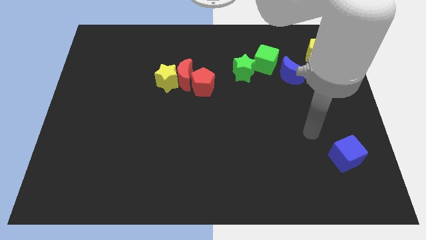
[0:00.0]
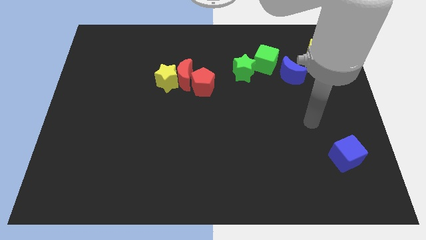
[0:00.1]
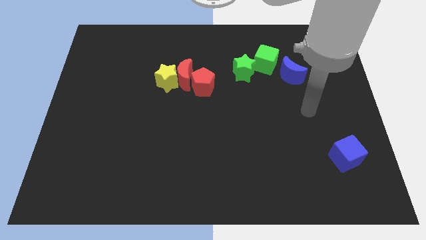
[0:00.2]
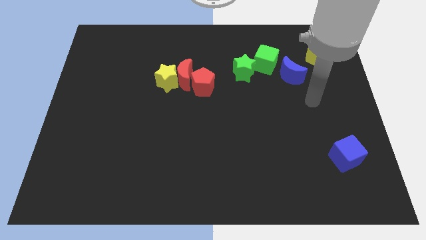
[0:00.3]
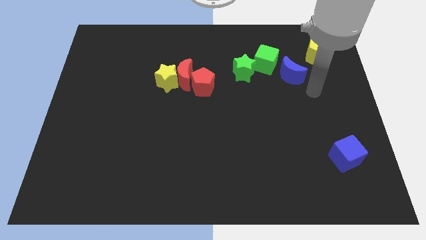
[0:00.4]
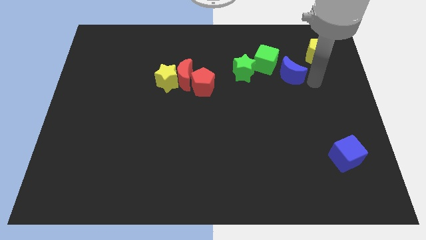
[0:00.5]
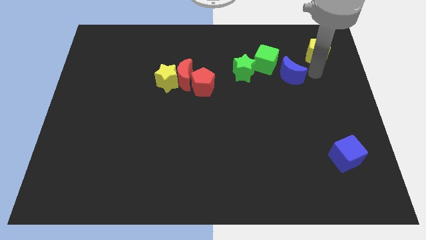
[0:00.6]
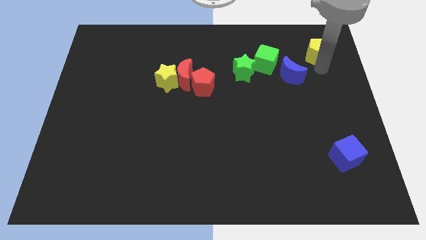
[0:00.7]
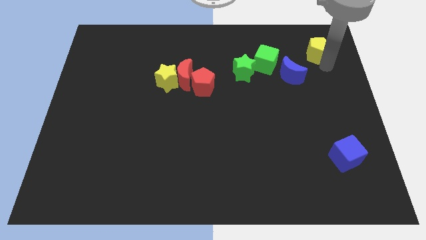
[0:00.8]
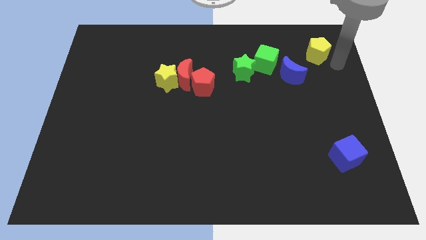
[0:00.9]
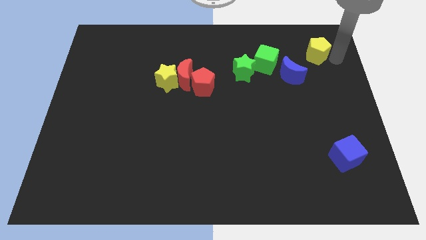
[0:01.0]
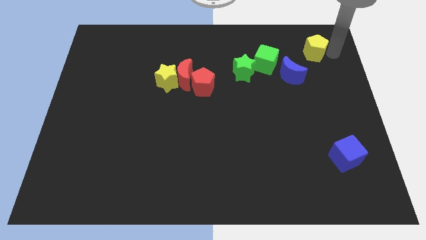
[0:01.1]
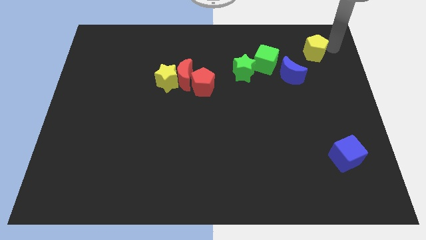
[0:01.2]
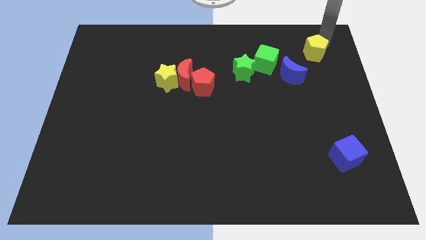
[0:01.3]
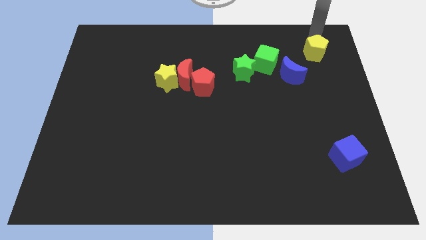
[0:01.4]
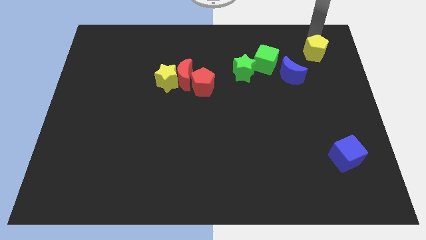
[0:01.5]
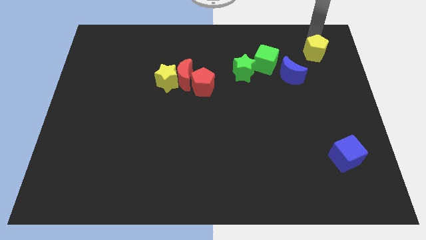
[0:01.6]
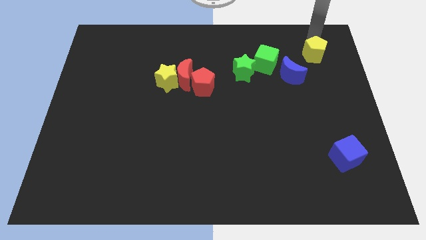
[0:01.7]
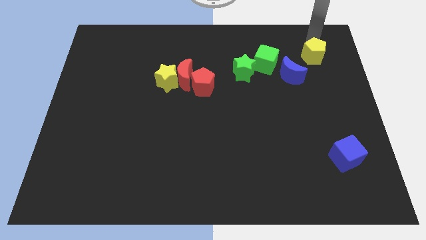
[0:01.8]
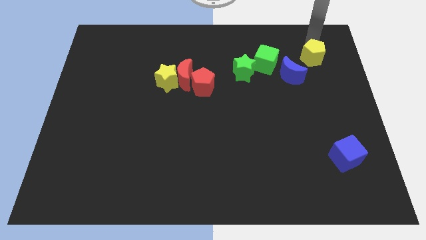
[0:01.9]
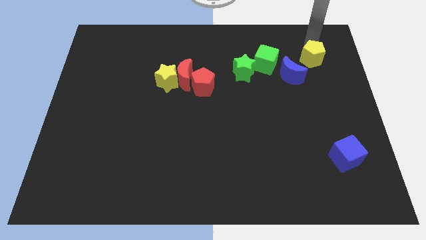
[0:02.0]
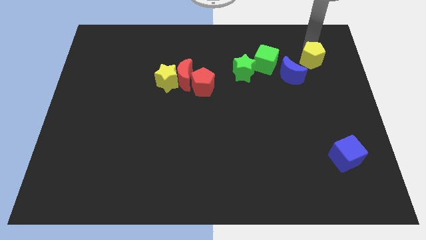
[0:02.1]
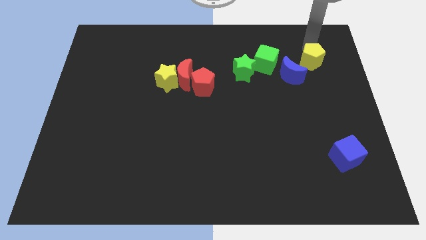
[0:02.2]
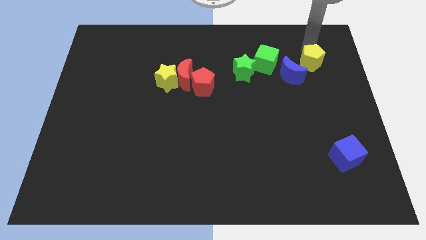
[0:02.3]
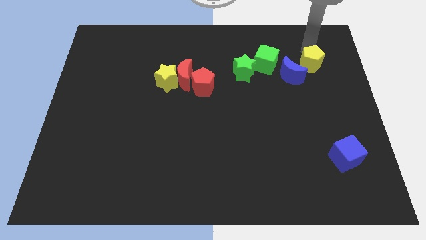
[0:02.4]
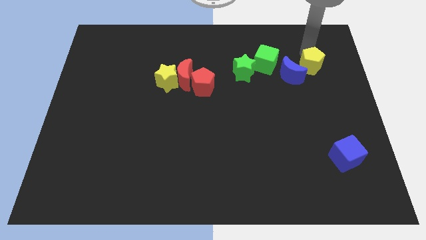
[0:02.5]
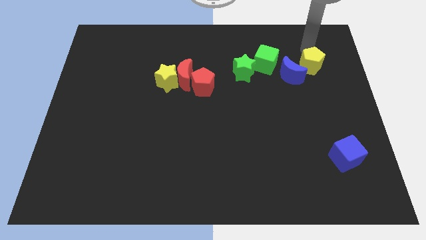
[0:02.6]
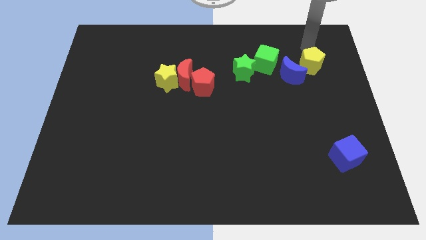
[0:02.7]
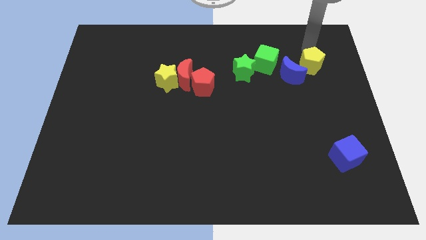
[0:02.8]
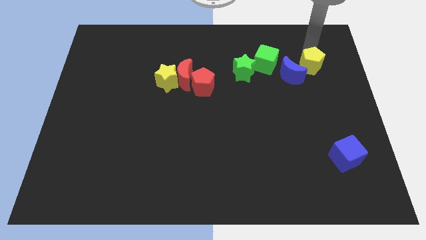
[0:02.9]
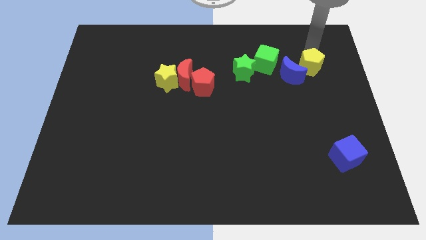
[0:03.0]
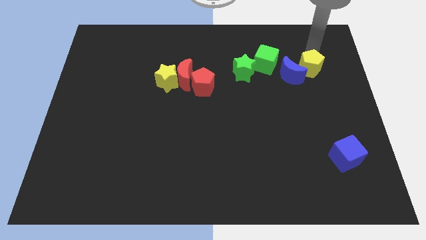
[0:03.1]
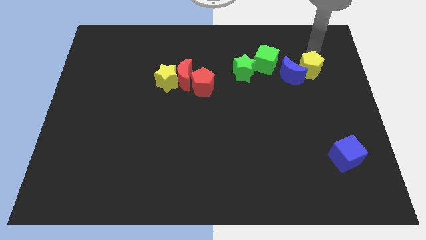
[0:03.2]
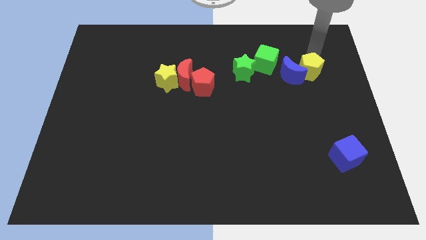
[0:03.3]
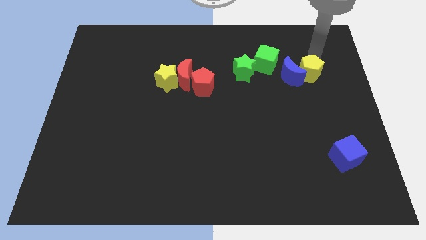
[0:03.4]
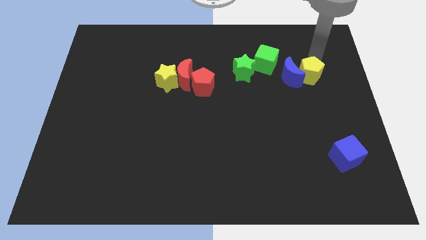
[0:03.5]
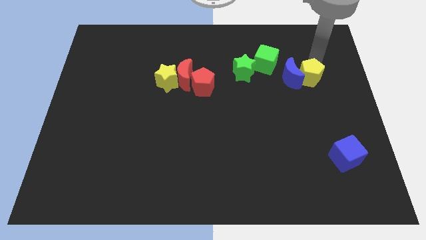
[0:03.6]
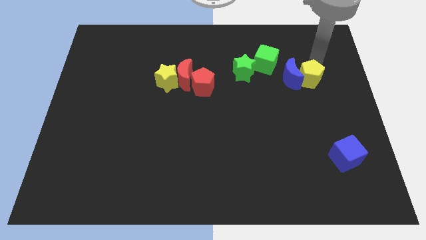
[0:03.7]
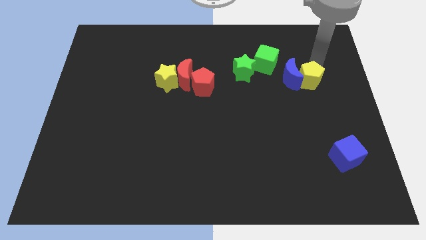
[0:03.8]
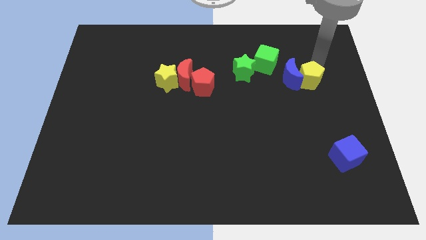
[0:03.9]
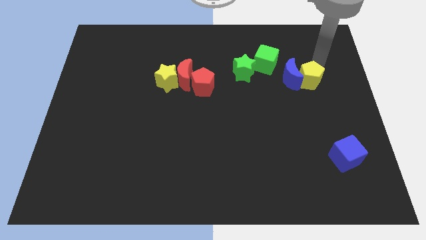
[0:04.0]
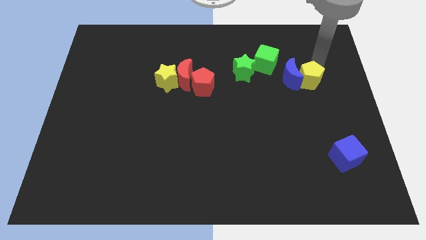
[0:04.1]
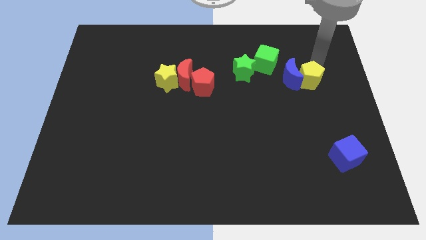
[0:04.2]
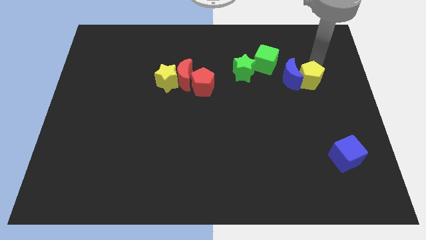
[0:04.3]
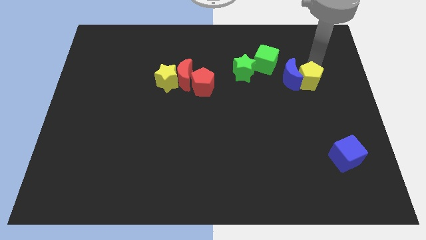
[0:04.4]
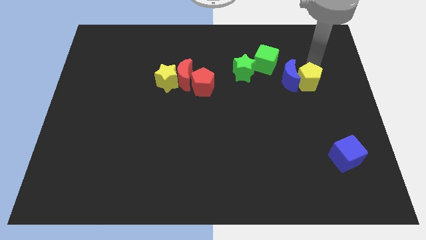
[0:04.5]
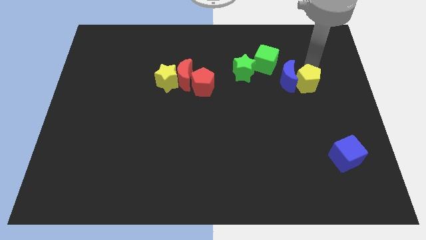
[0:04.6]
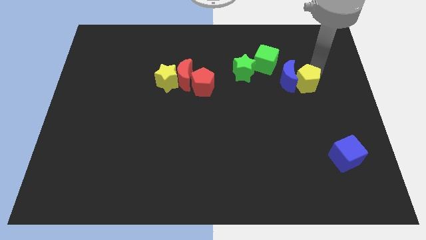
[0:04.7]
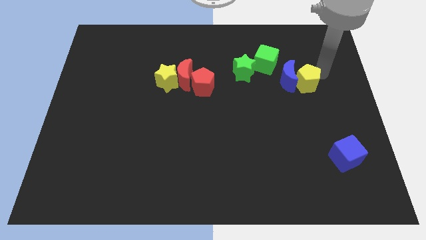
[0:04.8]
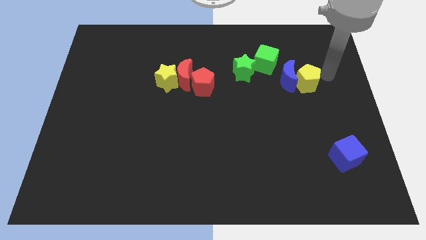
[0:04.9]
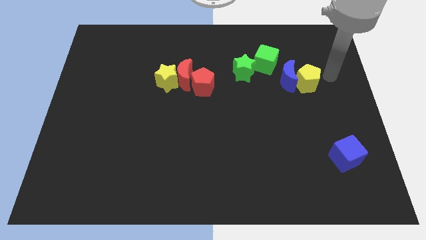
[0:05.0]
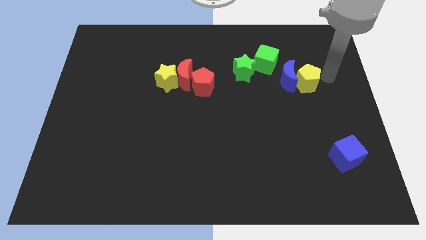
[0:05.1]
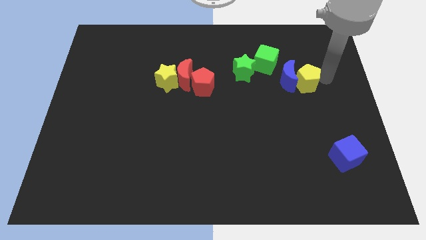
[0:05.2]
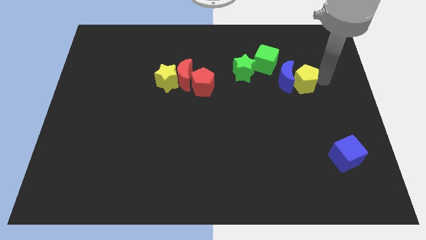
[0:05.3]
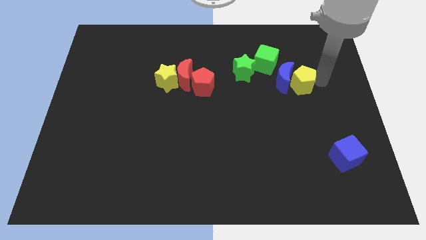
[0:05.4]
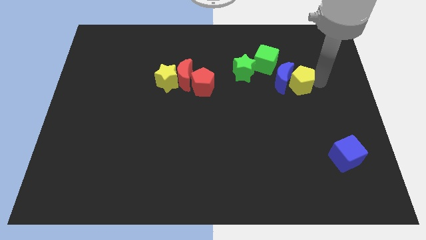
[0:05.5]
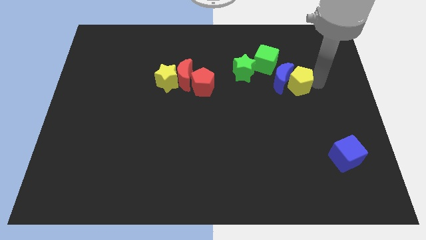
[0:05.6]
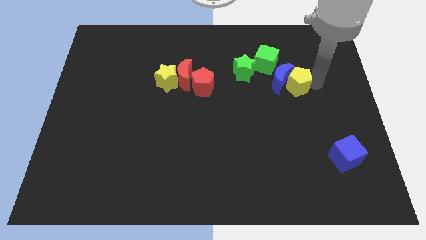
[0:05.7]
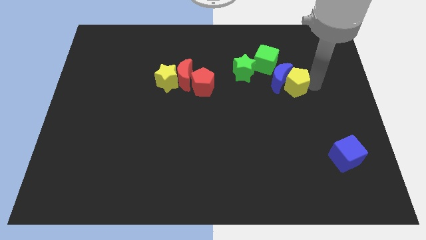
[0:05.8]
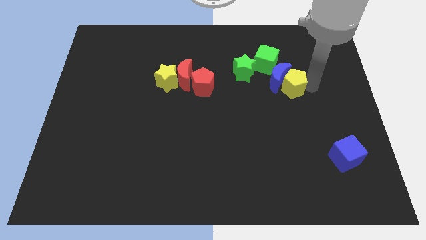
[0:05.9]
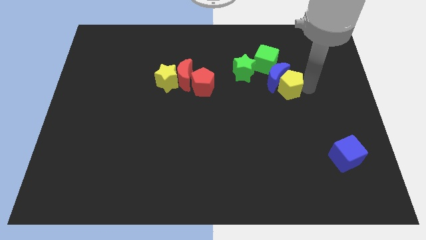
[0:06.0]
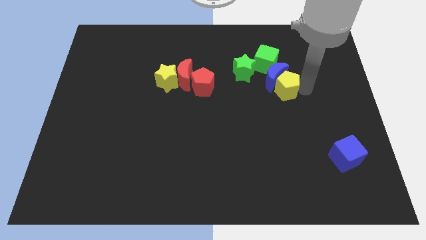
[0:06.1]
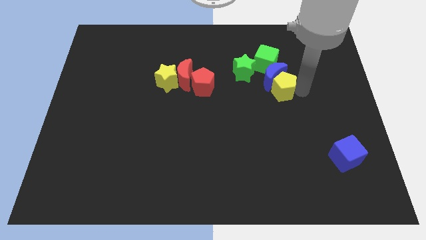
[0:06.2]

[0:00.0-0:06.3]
put the yellow pentagon to the bottom left of the blue moon

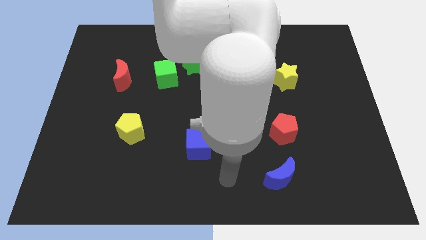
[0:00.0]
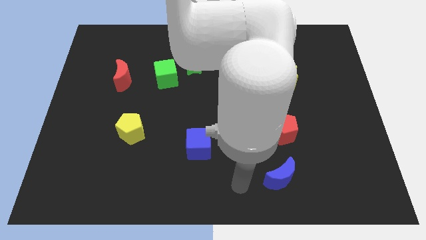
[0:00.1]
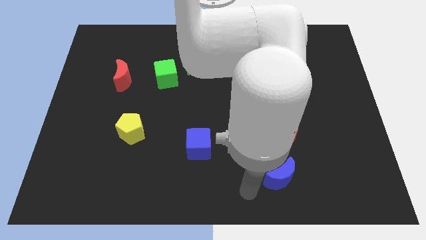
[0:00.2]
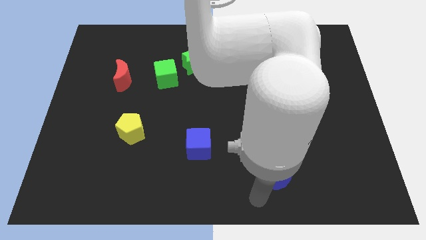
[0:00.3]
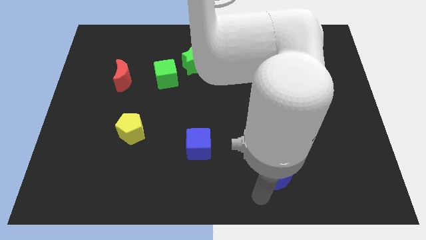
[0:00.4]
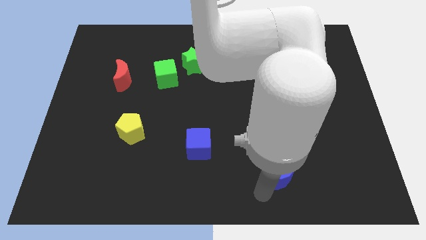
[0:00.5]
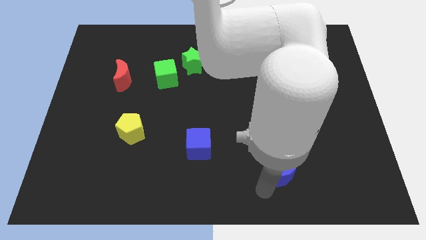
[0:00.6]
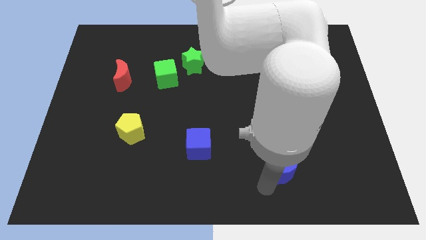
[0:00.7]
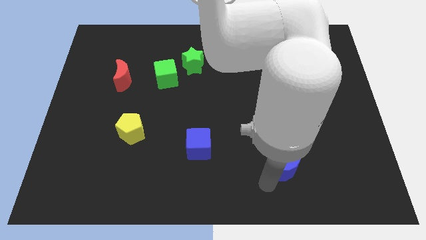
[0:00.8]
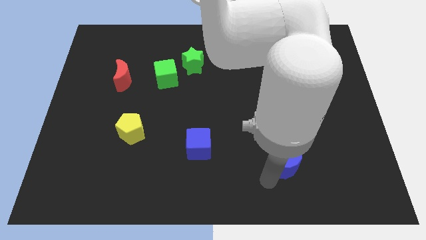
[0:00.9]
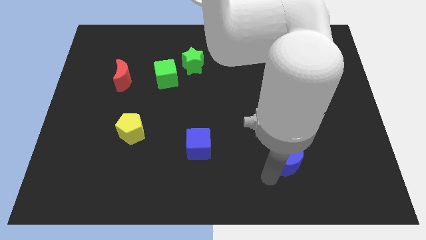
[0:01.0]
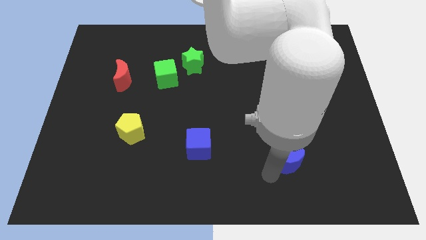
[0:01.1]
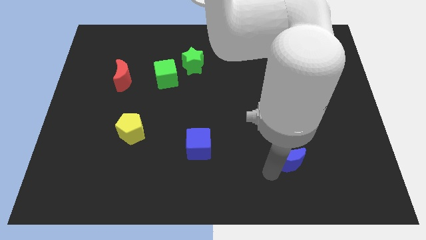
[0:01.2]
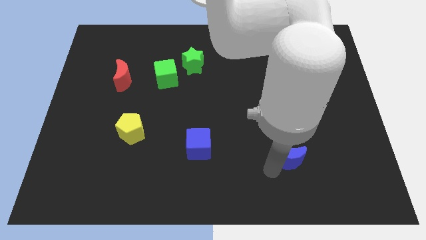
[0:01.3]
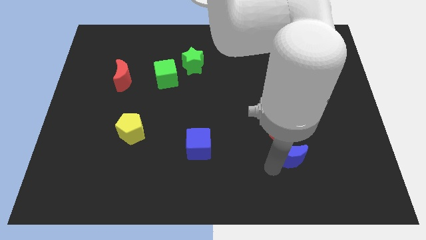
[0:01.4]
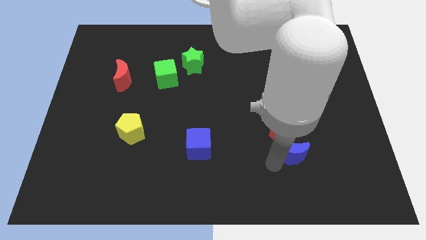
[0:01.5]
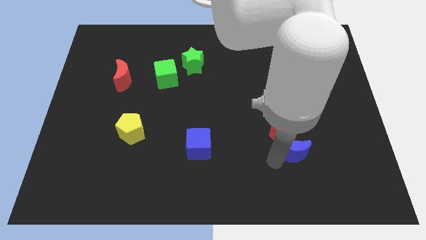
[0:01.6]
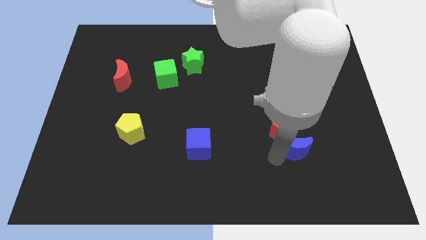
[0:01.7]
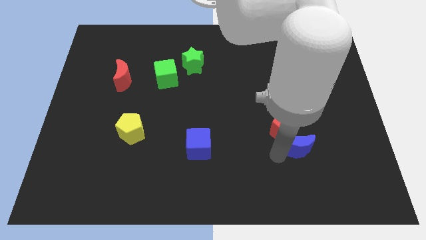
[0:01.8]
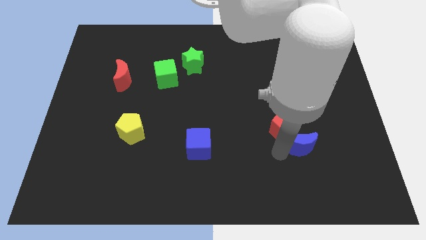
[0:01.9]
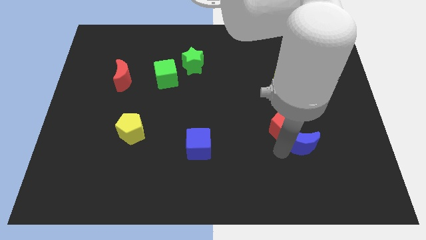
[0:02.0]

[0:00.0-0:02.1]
push the blue moon to the right of the red pentagon
